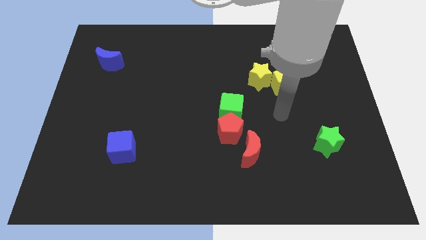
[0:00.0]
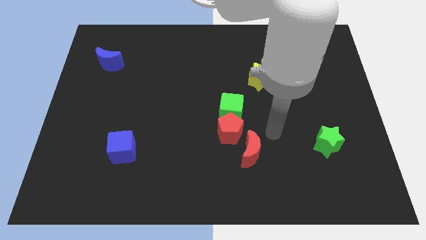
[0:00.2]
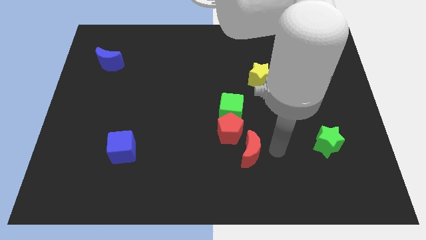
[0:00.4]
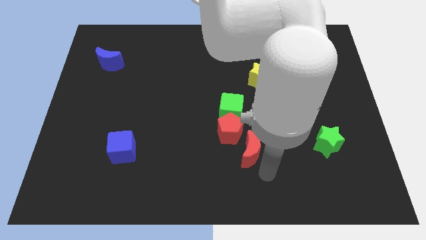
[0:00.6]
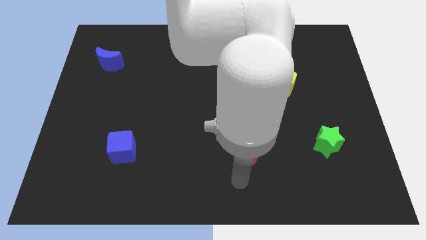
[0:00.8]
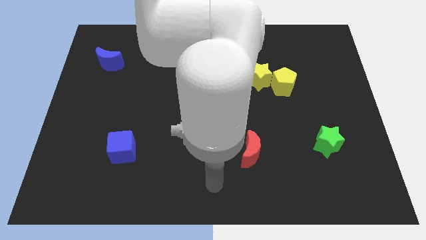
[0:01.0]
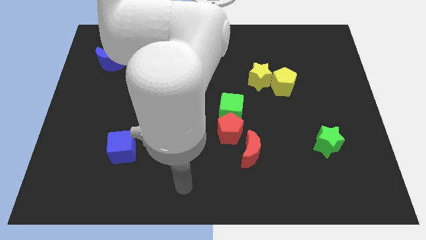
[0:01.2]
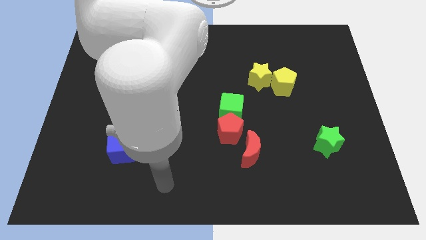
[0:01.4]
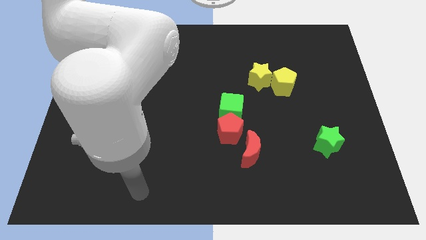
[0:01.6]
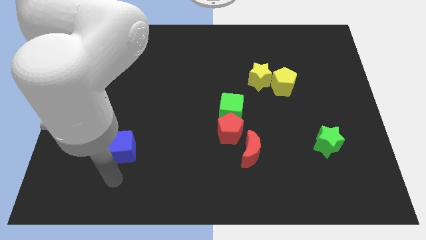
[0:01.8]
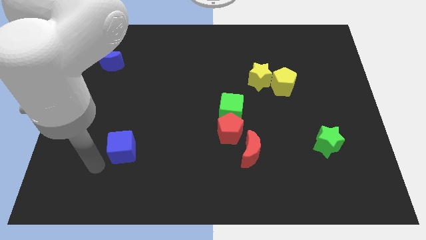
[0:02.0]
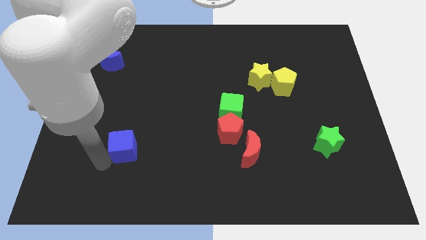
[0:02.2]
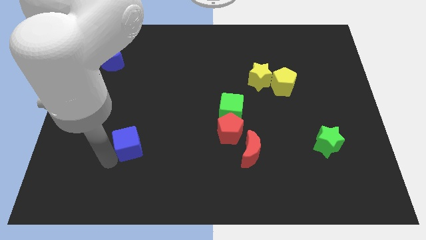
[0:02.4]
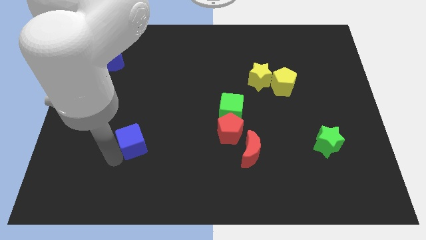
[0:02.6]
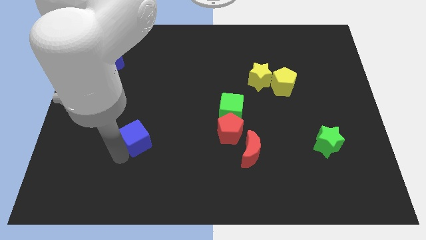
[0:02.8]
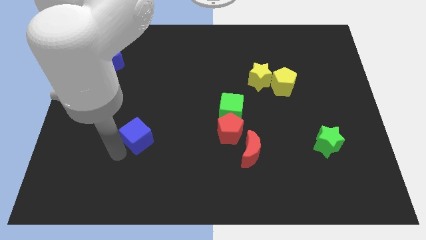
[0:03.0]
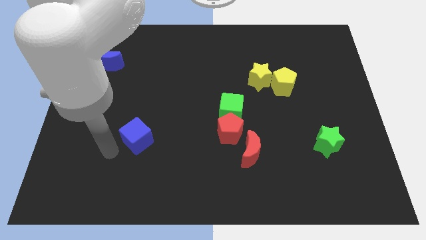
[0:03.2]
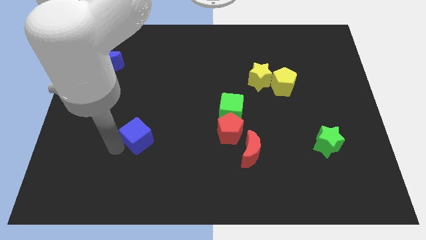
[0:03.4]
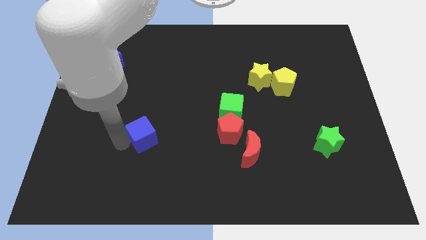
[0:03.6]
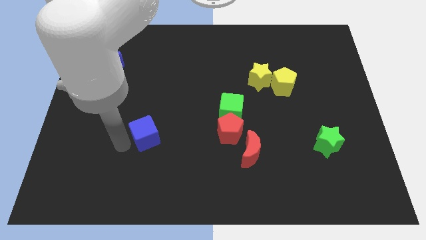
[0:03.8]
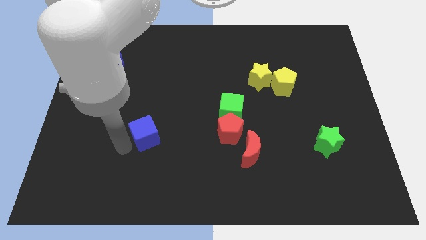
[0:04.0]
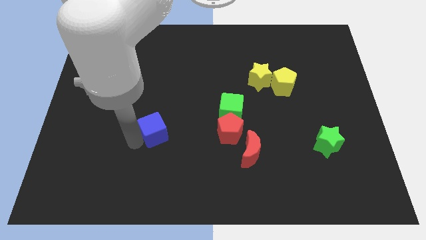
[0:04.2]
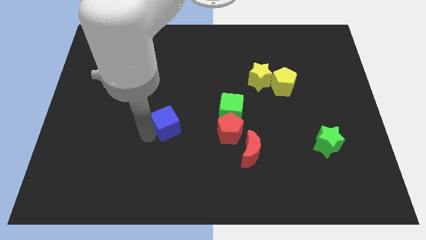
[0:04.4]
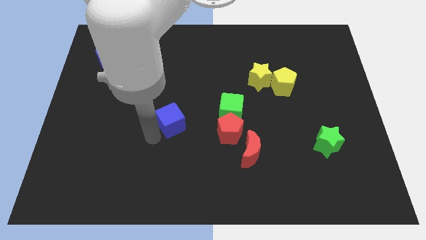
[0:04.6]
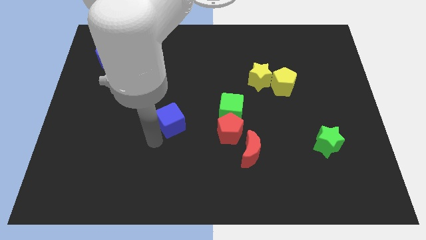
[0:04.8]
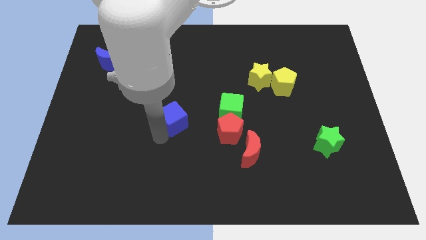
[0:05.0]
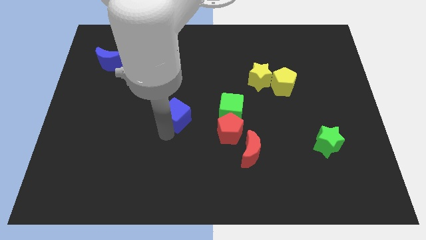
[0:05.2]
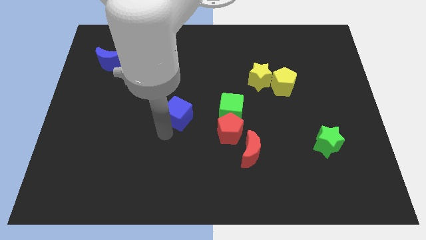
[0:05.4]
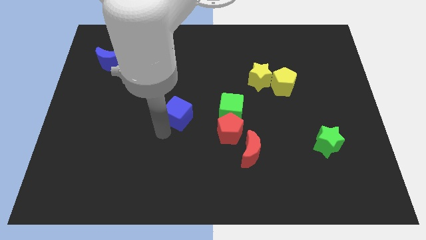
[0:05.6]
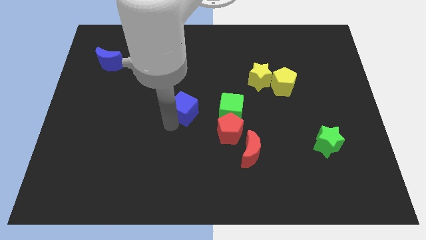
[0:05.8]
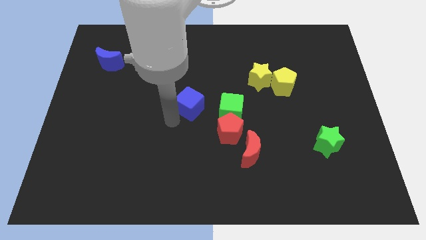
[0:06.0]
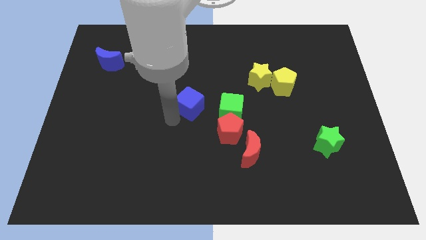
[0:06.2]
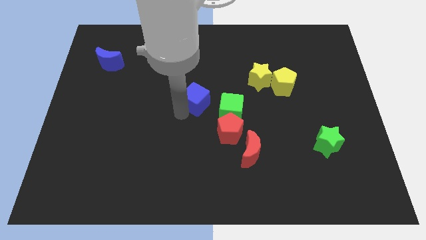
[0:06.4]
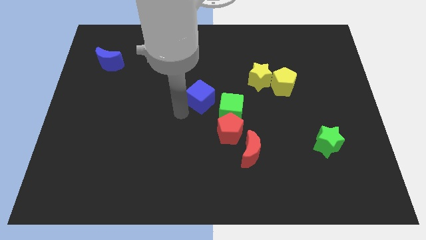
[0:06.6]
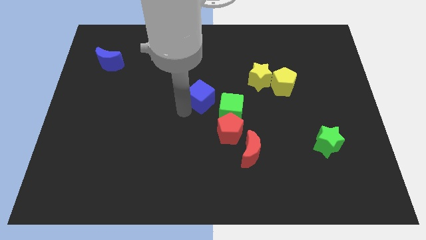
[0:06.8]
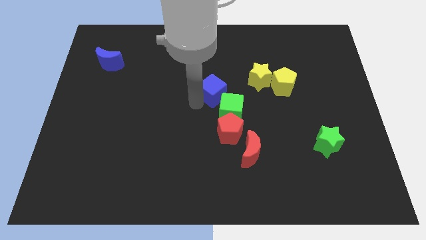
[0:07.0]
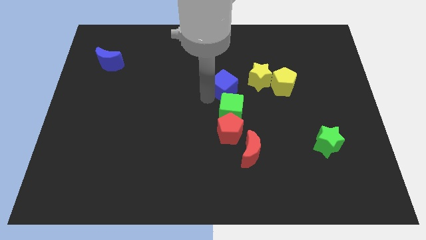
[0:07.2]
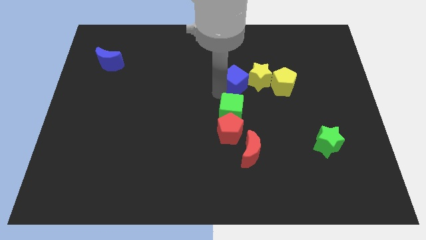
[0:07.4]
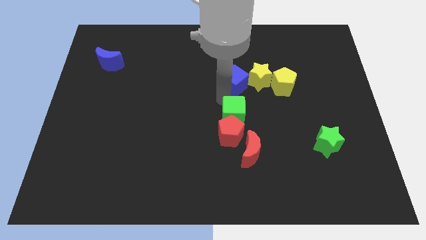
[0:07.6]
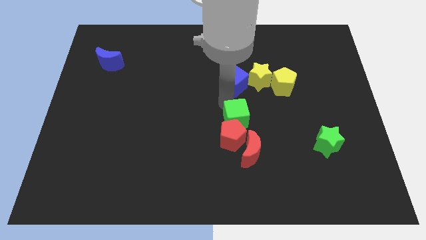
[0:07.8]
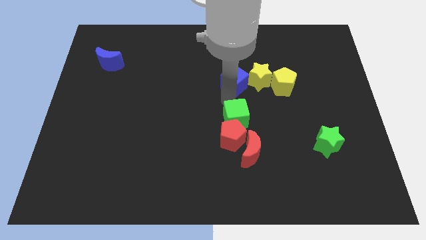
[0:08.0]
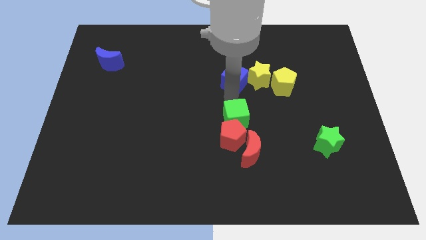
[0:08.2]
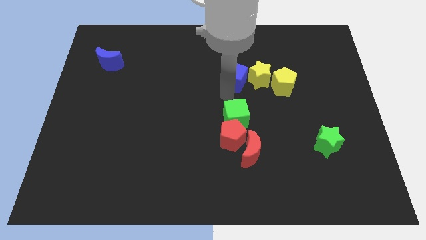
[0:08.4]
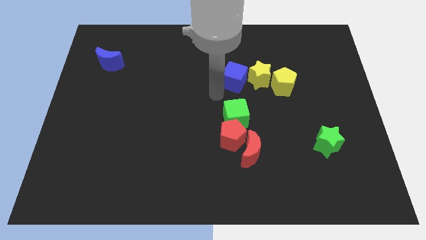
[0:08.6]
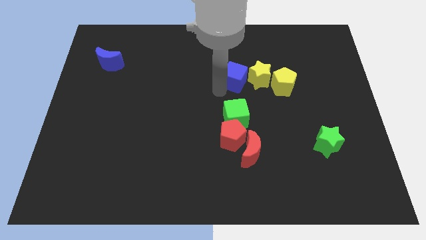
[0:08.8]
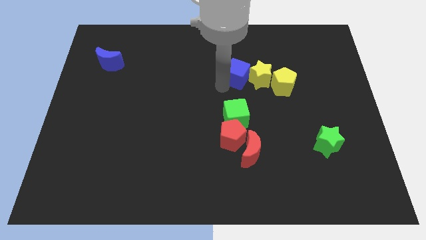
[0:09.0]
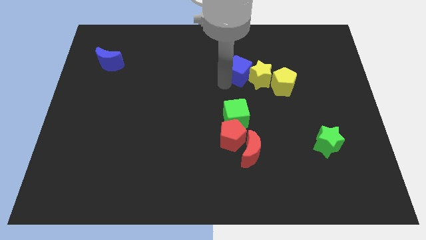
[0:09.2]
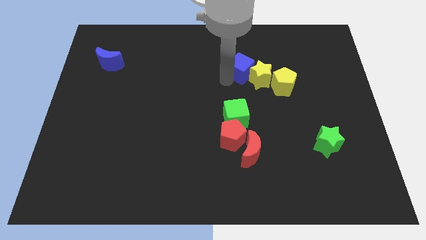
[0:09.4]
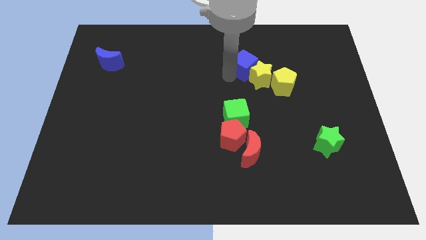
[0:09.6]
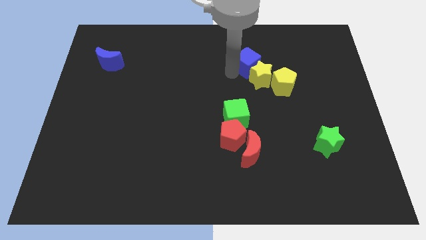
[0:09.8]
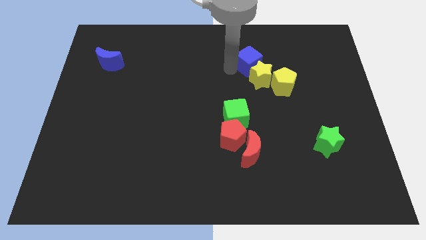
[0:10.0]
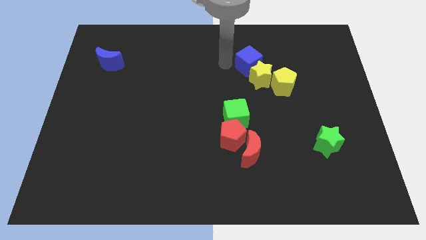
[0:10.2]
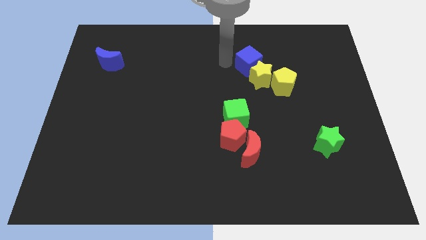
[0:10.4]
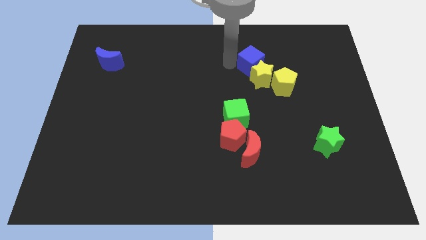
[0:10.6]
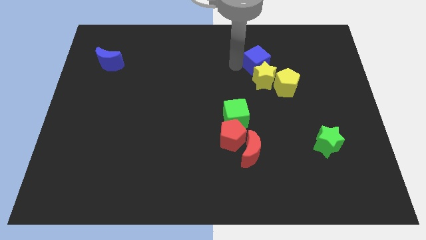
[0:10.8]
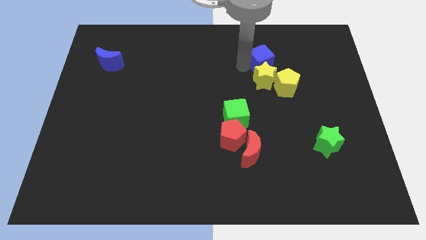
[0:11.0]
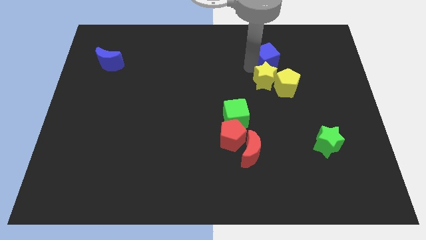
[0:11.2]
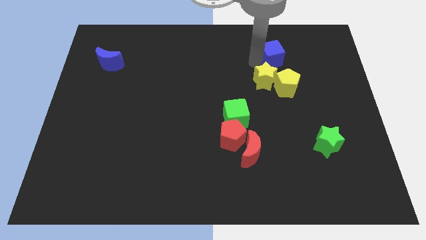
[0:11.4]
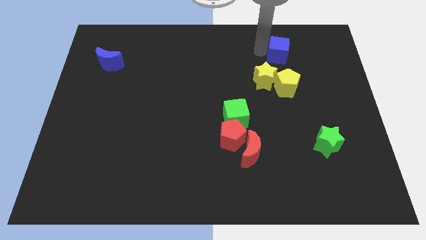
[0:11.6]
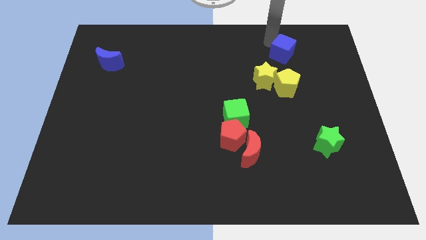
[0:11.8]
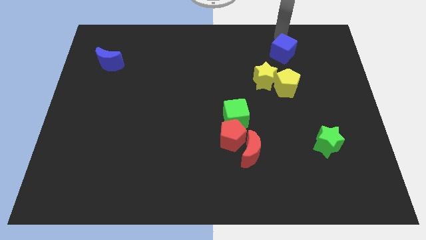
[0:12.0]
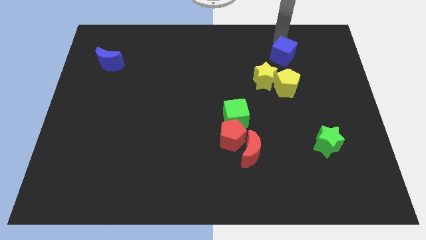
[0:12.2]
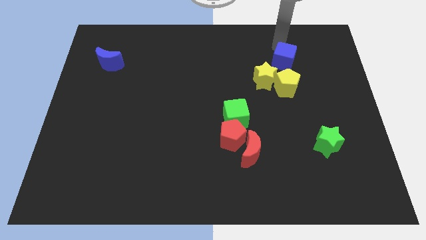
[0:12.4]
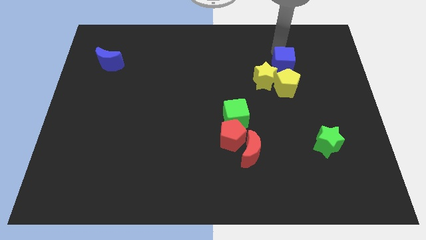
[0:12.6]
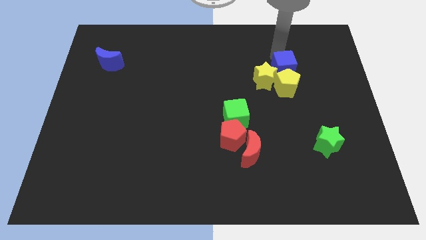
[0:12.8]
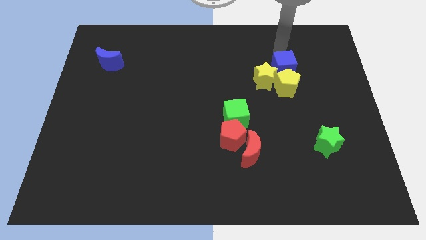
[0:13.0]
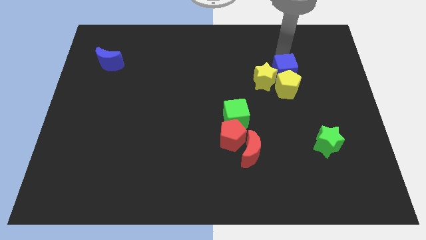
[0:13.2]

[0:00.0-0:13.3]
put the blue cube close to the yellow pentagon

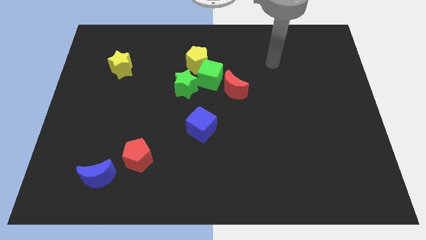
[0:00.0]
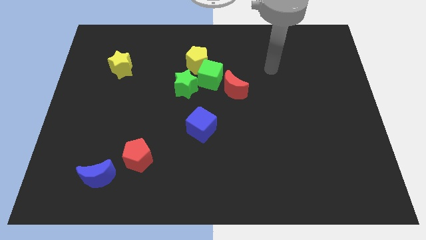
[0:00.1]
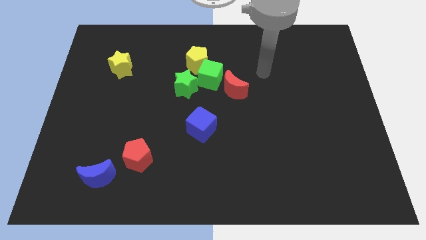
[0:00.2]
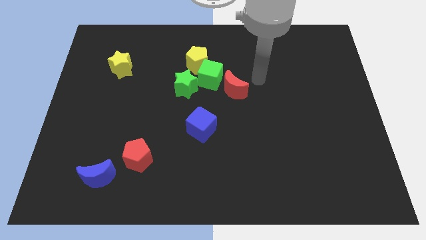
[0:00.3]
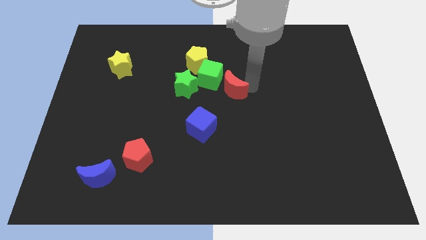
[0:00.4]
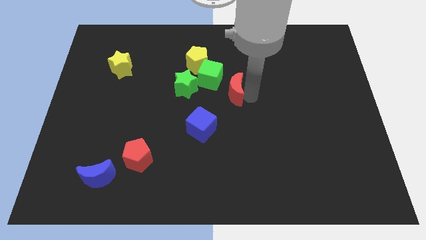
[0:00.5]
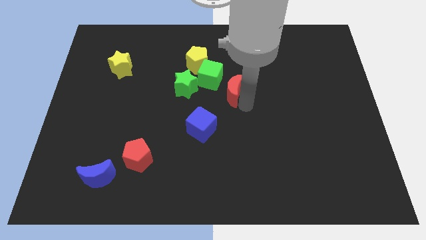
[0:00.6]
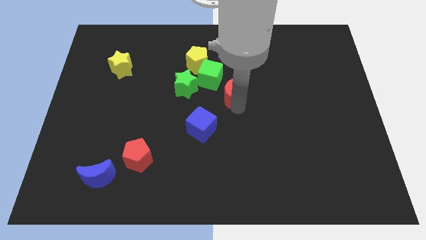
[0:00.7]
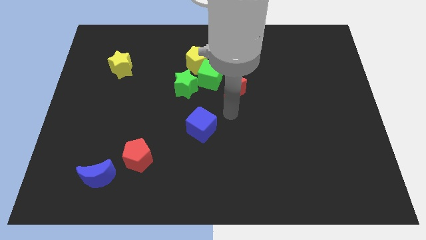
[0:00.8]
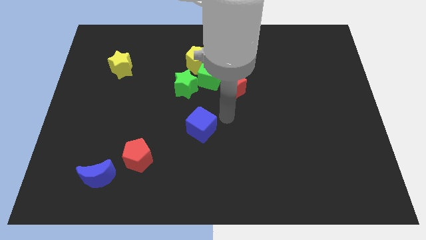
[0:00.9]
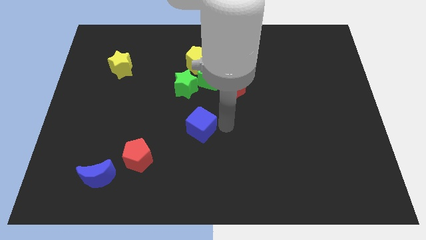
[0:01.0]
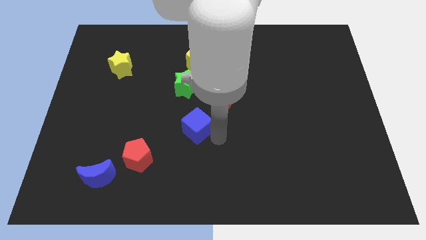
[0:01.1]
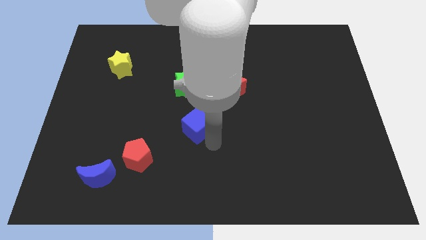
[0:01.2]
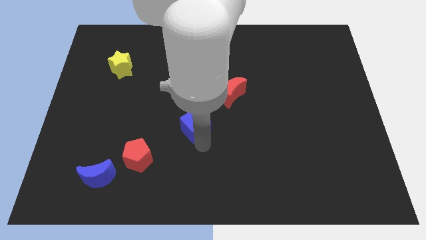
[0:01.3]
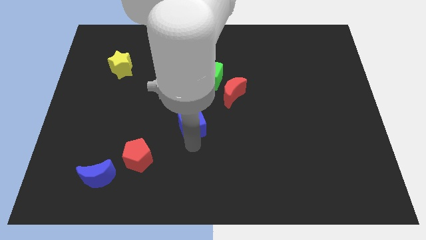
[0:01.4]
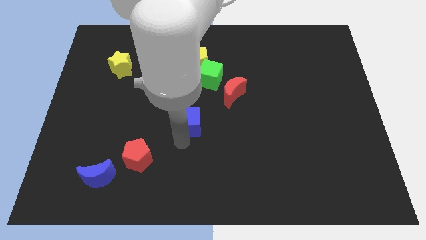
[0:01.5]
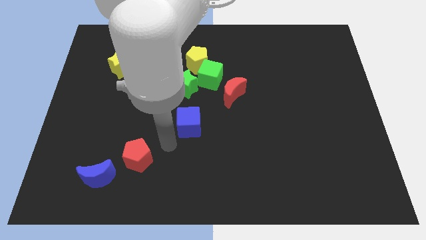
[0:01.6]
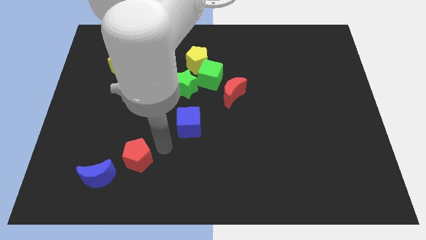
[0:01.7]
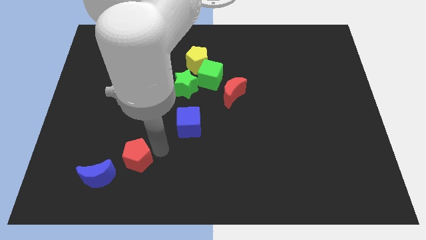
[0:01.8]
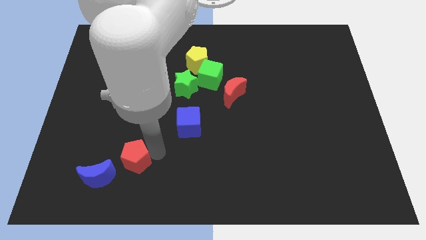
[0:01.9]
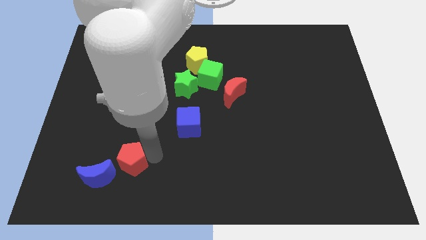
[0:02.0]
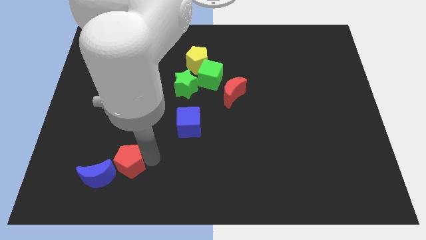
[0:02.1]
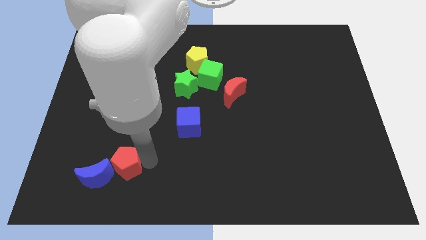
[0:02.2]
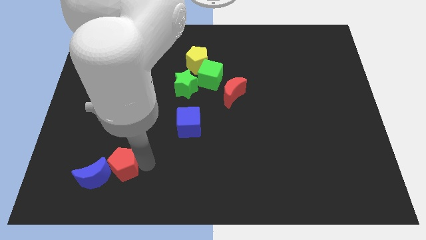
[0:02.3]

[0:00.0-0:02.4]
slide the red pentagon close to the blue moon
